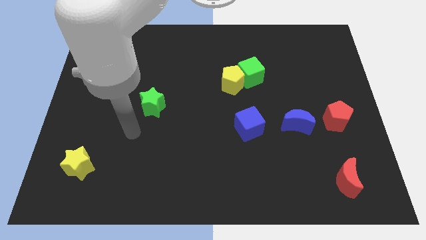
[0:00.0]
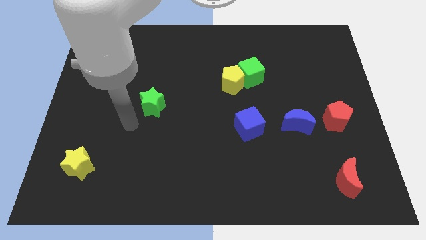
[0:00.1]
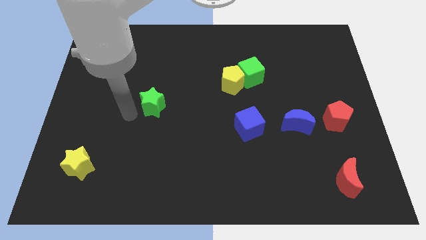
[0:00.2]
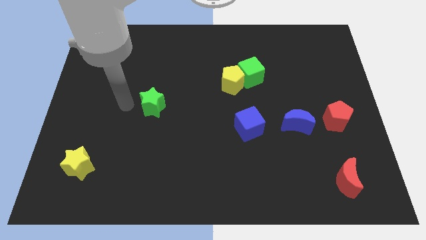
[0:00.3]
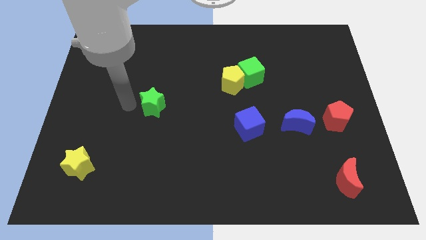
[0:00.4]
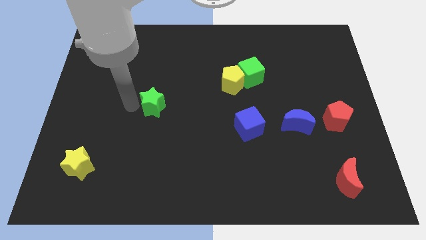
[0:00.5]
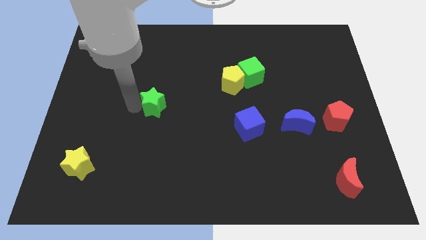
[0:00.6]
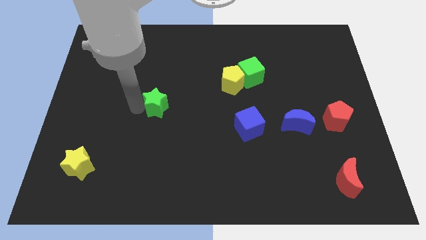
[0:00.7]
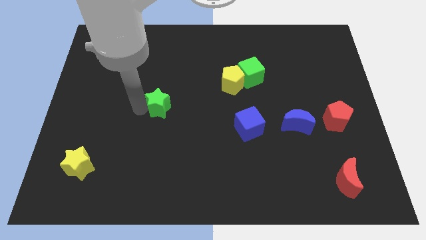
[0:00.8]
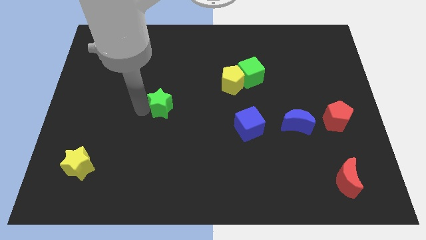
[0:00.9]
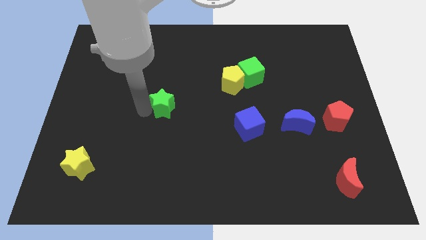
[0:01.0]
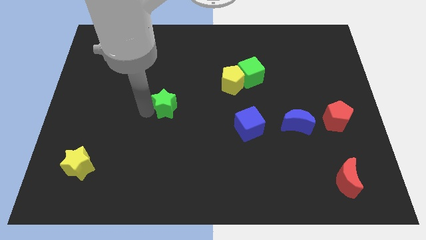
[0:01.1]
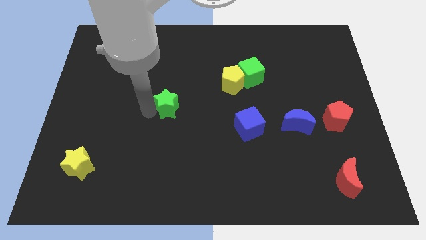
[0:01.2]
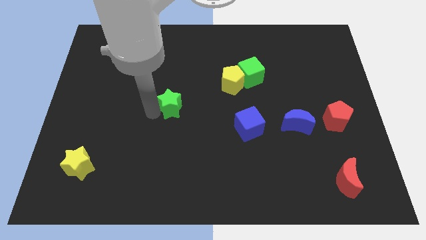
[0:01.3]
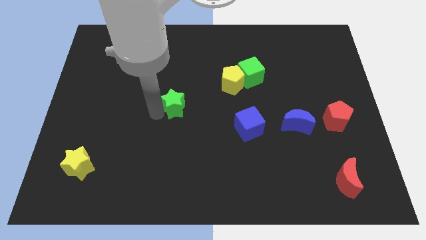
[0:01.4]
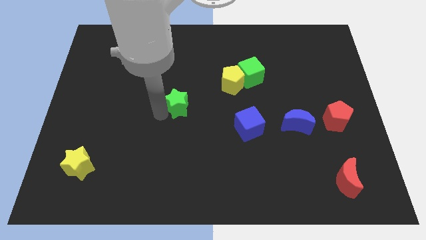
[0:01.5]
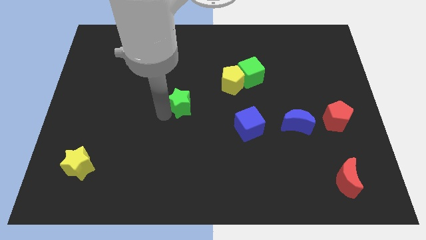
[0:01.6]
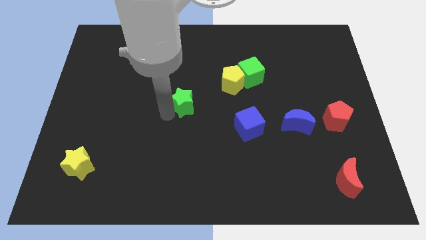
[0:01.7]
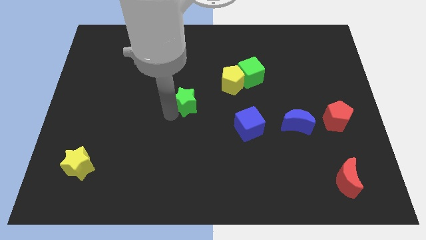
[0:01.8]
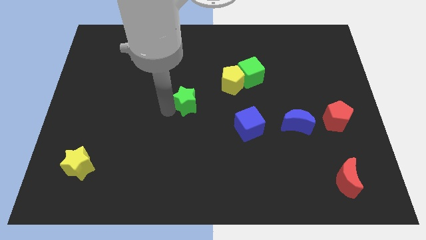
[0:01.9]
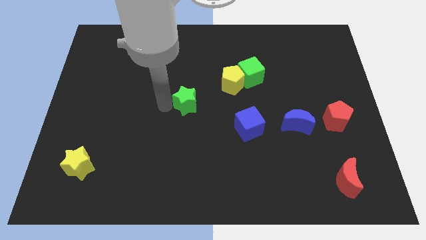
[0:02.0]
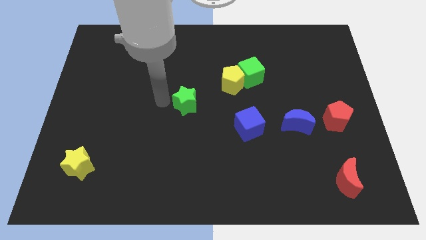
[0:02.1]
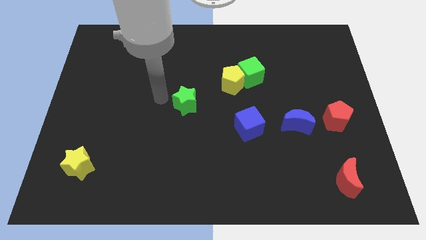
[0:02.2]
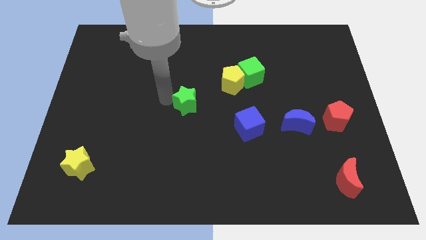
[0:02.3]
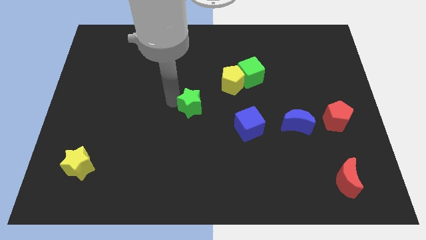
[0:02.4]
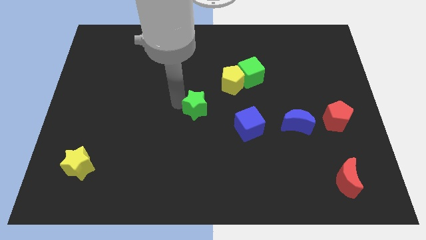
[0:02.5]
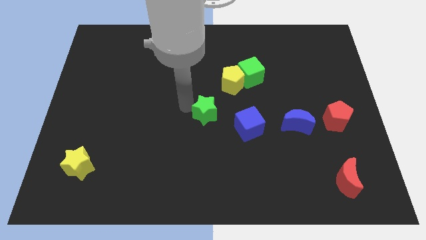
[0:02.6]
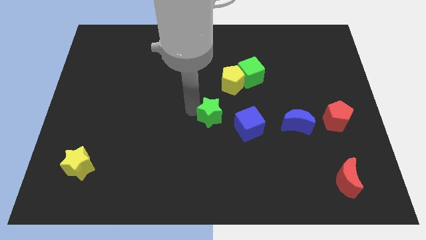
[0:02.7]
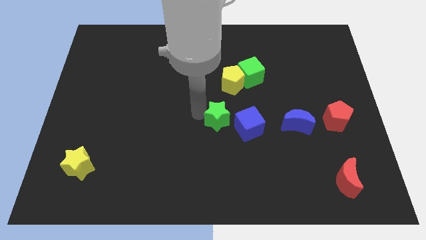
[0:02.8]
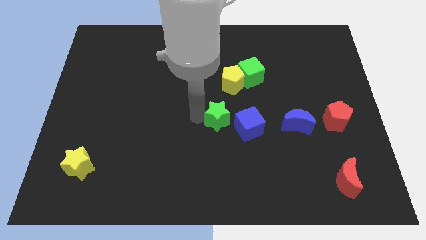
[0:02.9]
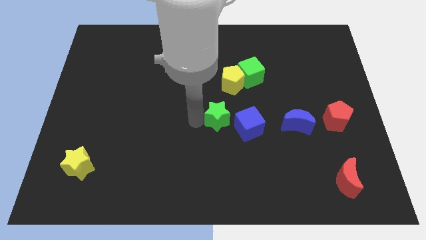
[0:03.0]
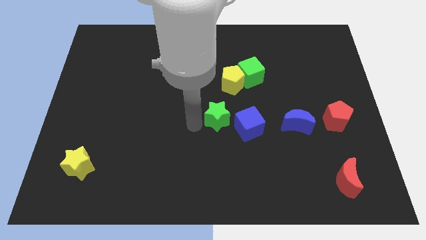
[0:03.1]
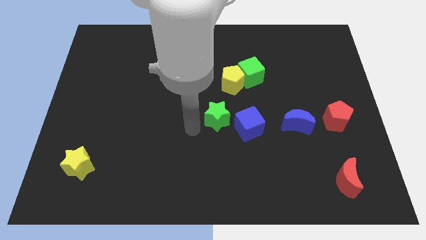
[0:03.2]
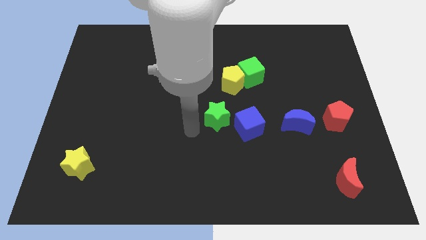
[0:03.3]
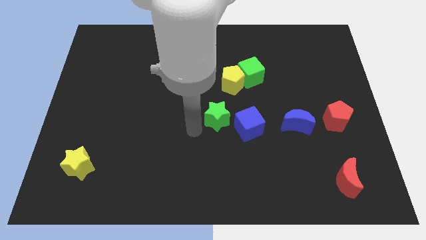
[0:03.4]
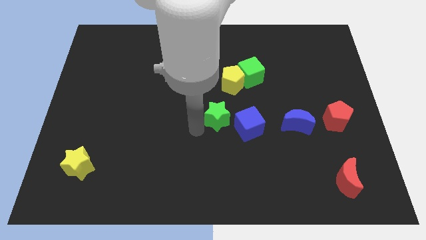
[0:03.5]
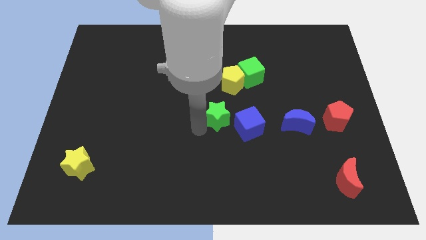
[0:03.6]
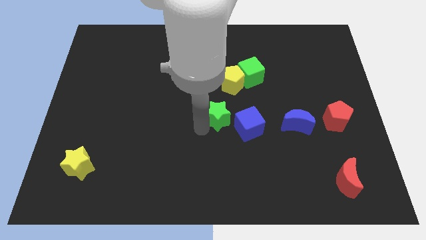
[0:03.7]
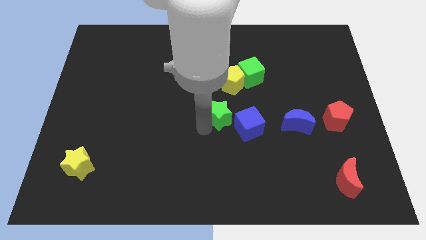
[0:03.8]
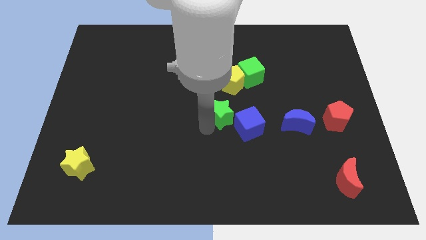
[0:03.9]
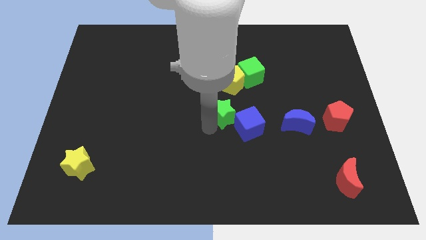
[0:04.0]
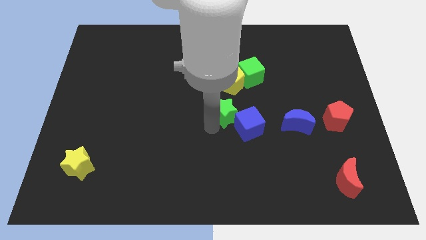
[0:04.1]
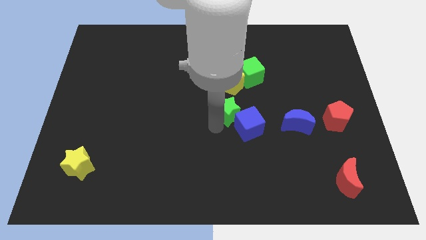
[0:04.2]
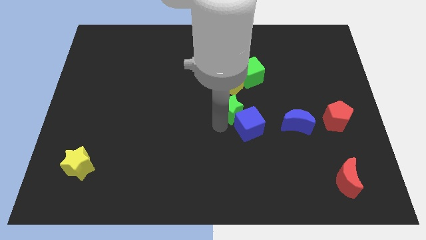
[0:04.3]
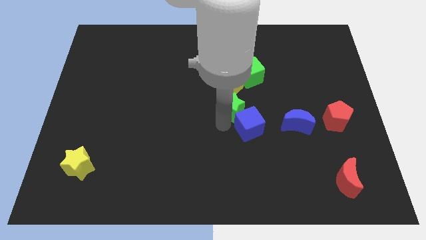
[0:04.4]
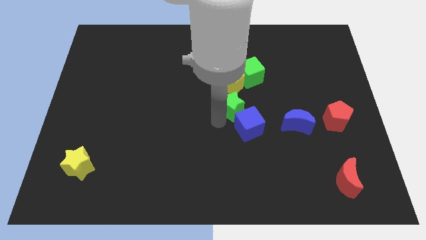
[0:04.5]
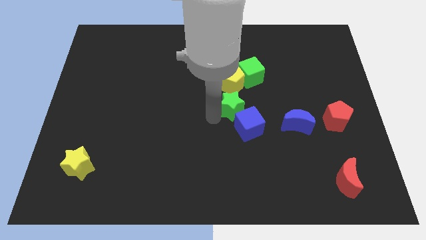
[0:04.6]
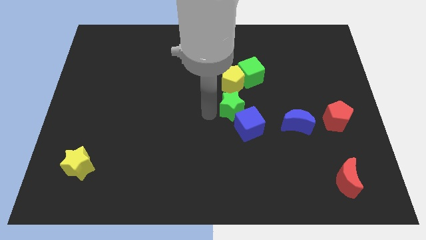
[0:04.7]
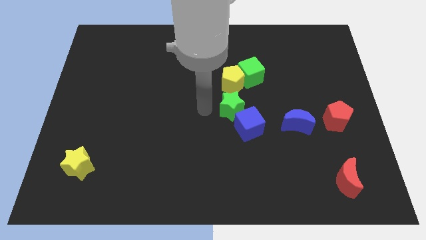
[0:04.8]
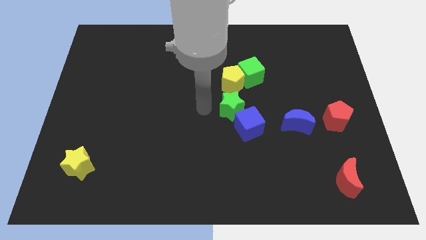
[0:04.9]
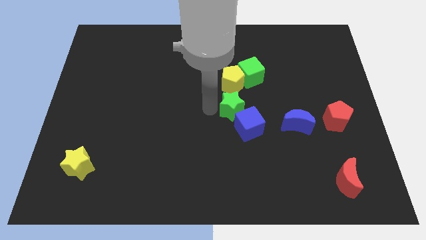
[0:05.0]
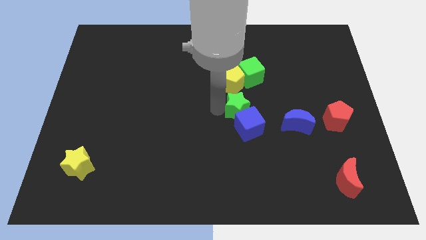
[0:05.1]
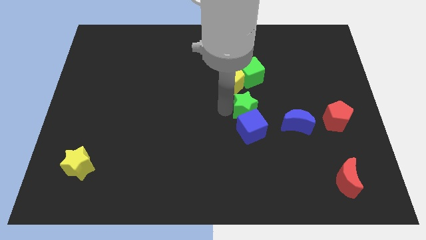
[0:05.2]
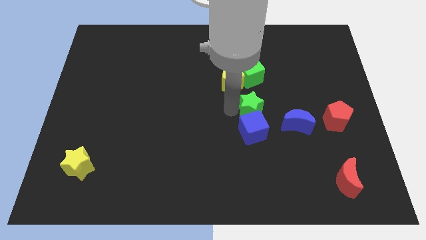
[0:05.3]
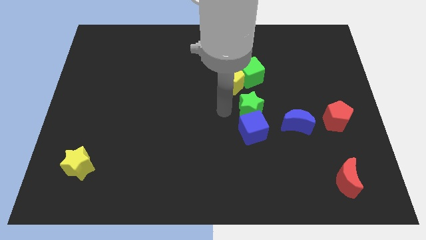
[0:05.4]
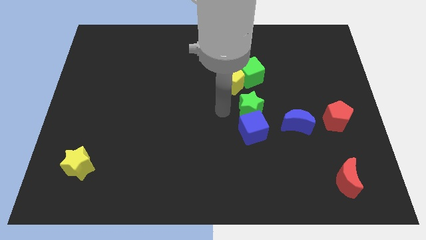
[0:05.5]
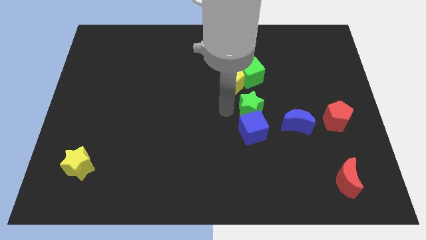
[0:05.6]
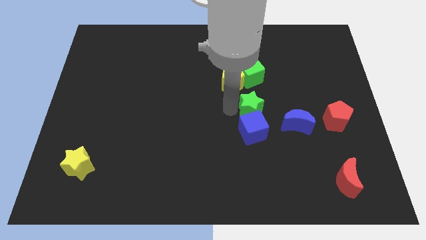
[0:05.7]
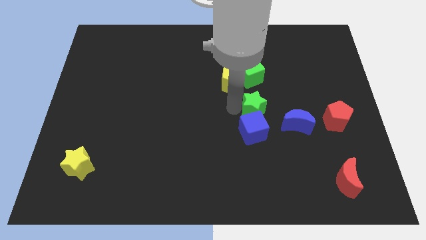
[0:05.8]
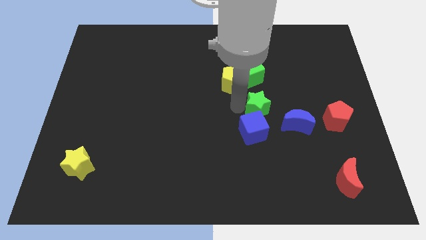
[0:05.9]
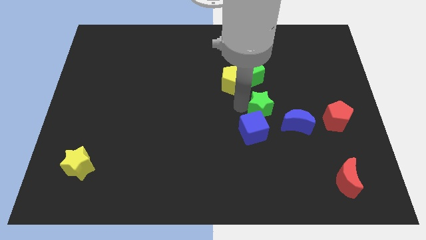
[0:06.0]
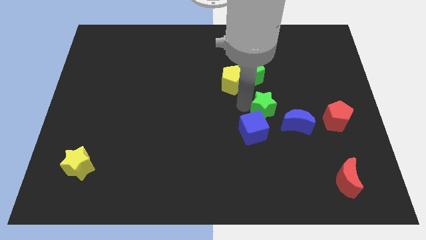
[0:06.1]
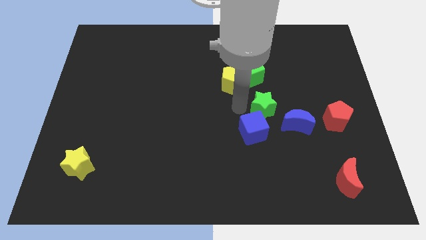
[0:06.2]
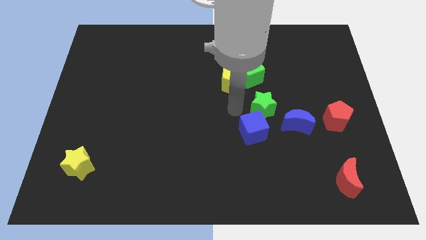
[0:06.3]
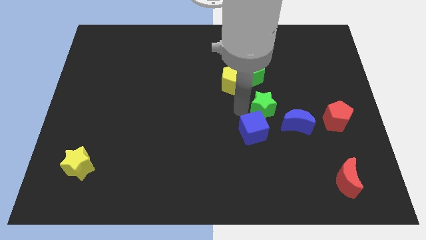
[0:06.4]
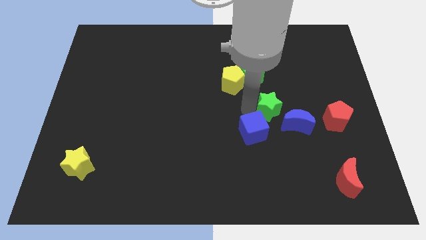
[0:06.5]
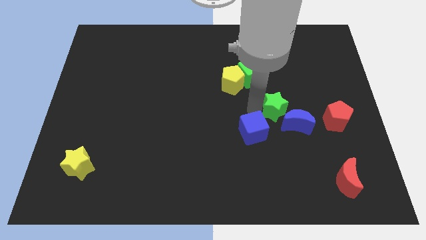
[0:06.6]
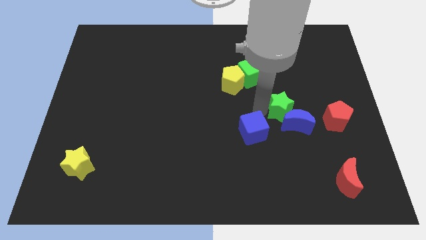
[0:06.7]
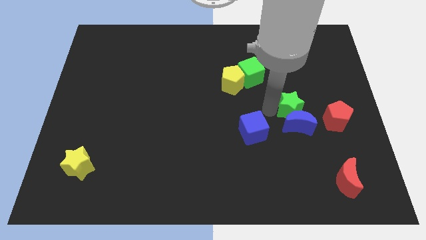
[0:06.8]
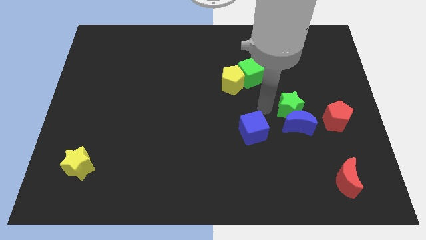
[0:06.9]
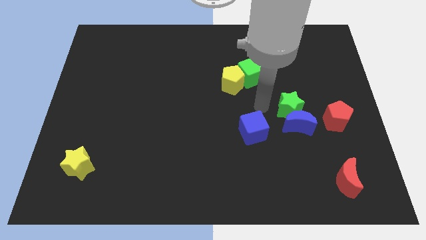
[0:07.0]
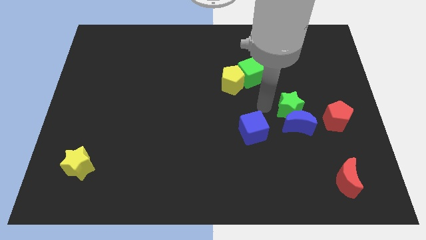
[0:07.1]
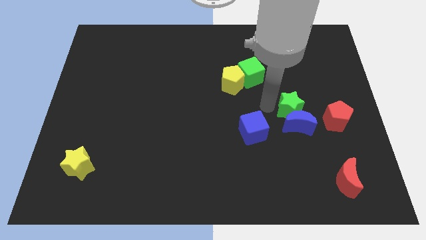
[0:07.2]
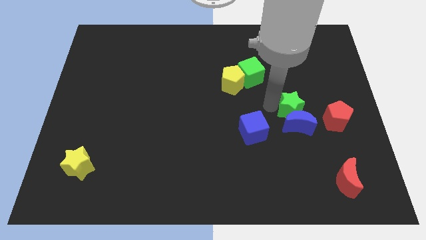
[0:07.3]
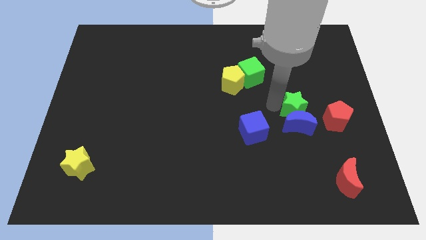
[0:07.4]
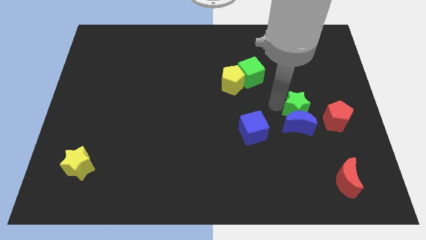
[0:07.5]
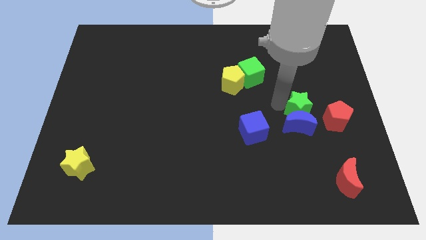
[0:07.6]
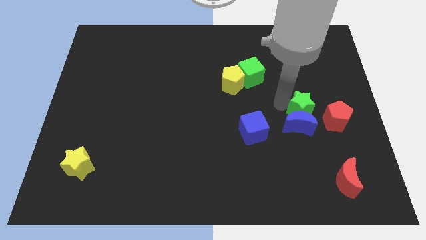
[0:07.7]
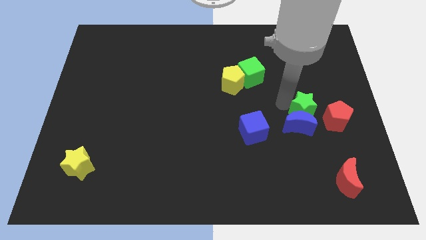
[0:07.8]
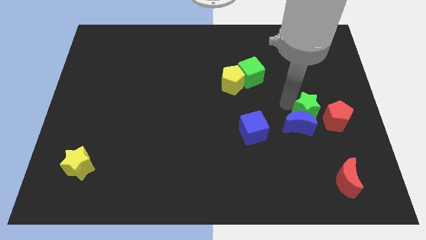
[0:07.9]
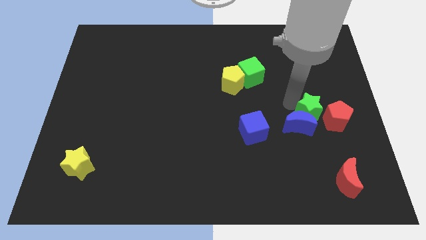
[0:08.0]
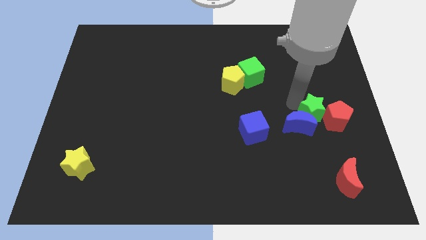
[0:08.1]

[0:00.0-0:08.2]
push the green star close to the red pentagon
